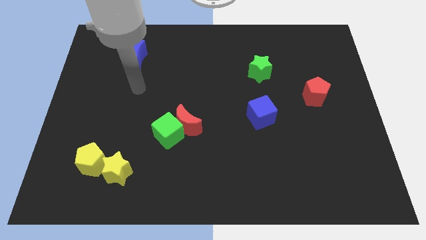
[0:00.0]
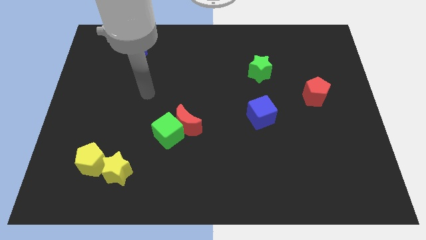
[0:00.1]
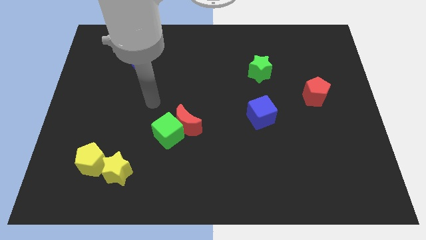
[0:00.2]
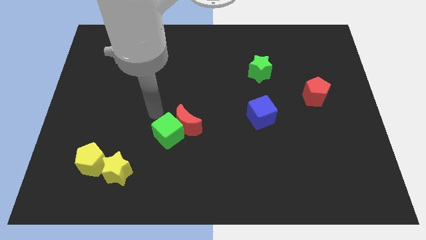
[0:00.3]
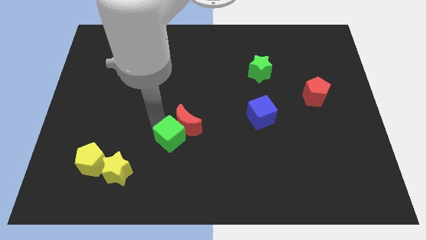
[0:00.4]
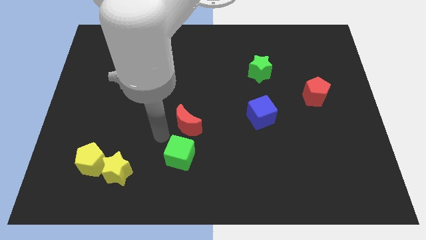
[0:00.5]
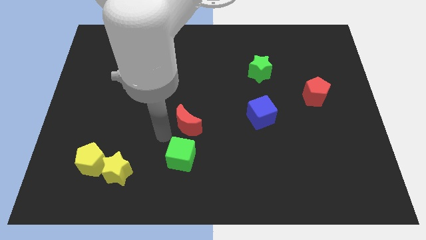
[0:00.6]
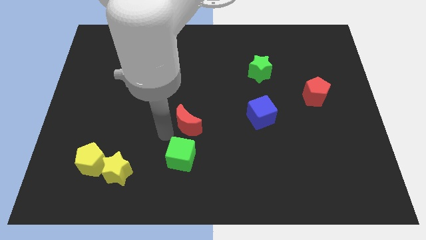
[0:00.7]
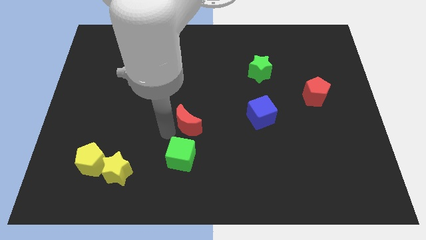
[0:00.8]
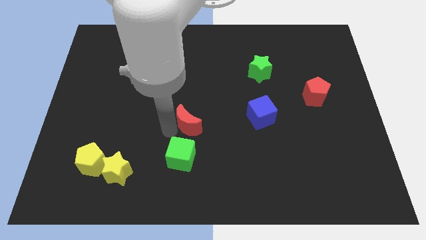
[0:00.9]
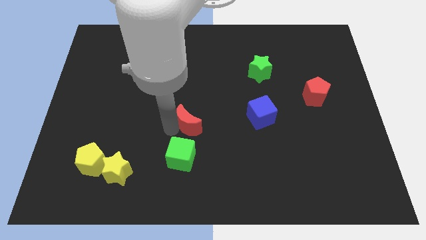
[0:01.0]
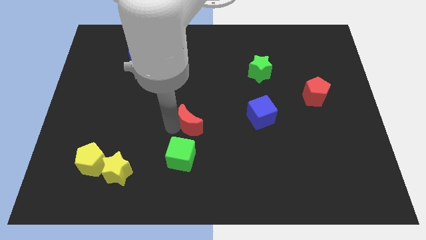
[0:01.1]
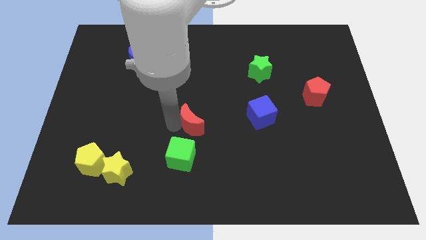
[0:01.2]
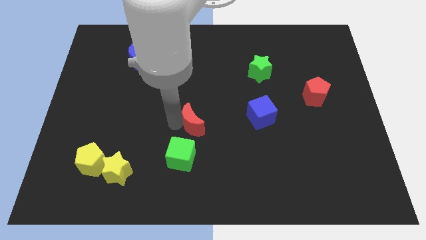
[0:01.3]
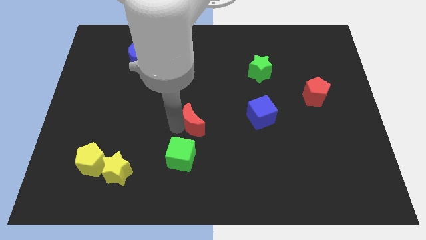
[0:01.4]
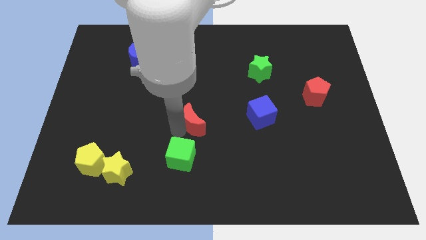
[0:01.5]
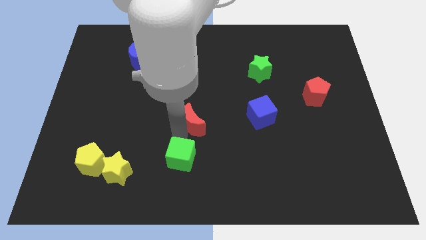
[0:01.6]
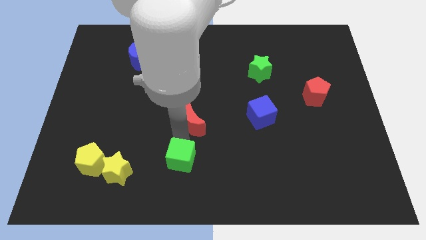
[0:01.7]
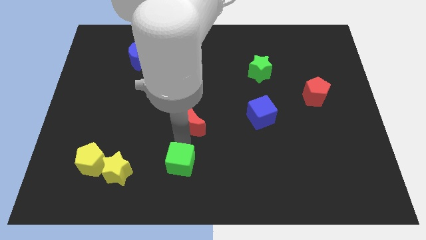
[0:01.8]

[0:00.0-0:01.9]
move the red moon away from the green cube

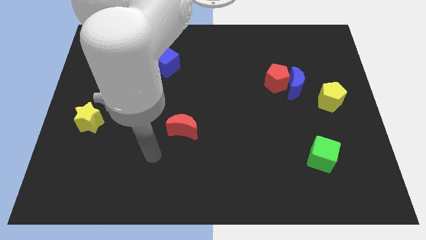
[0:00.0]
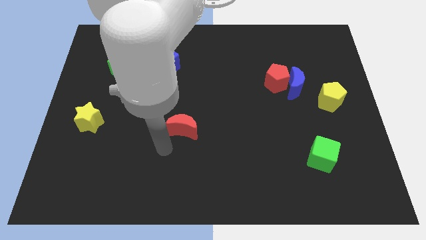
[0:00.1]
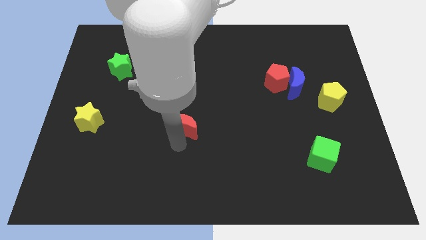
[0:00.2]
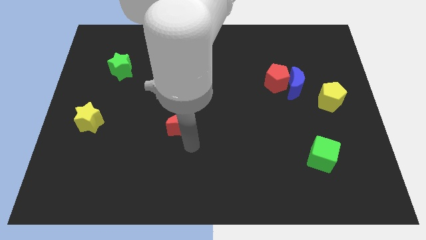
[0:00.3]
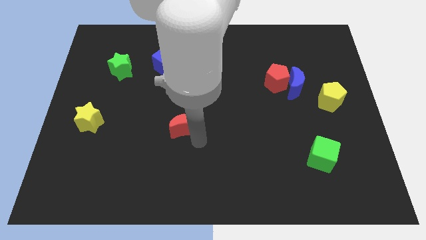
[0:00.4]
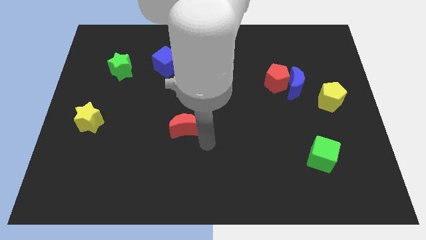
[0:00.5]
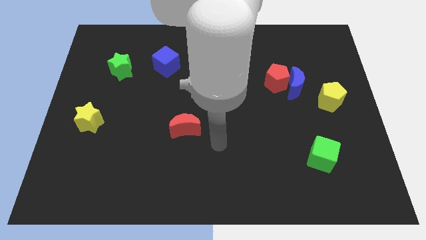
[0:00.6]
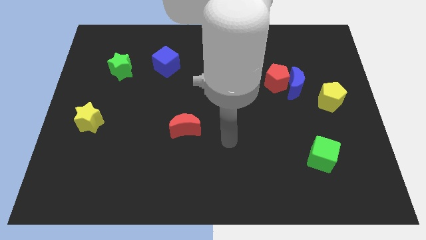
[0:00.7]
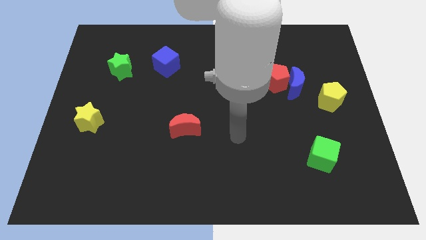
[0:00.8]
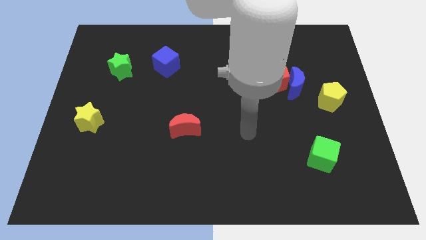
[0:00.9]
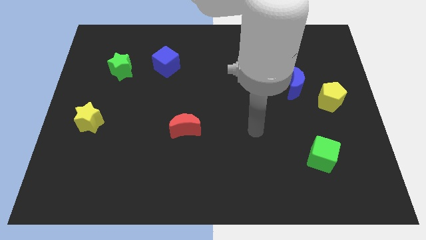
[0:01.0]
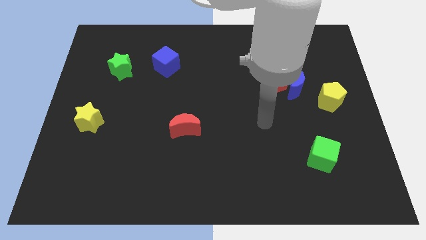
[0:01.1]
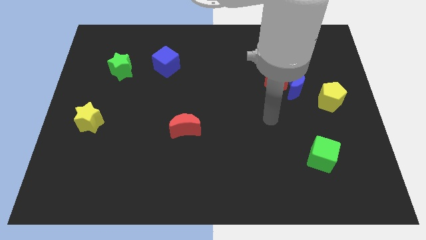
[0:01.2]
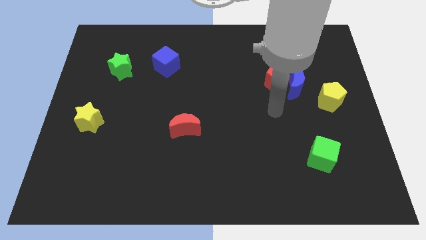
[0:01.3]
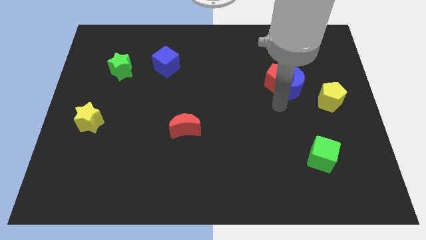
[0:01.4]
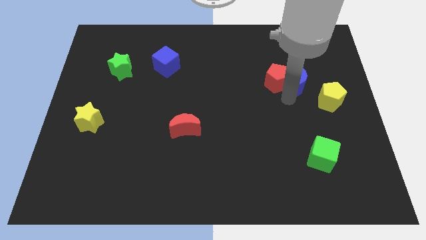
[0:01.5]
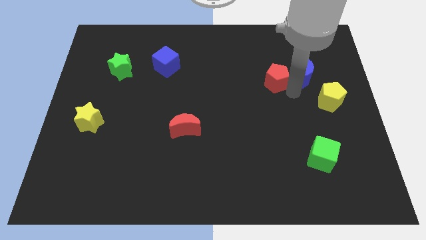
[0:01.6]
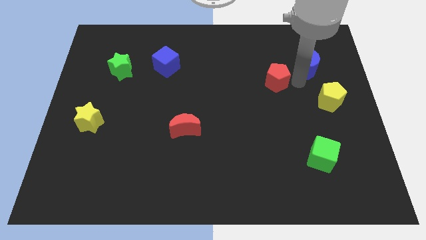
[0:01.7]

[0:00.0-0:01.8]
pull the red pentagon apart from the blue moon

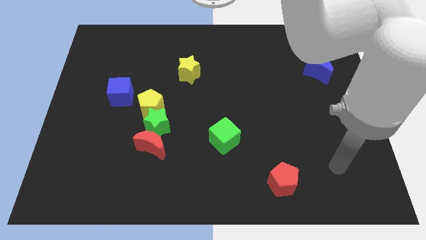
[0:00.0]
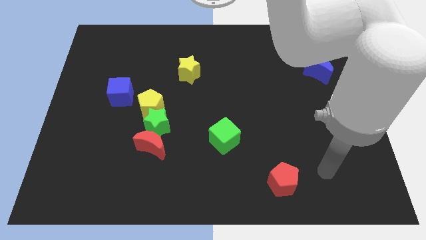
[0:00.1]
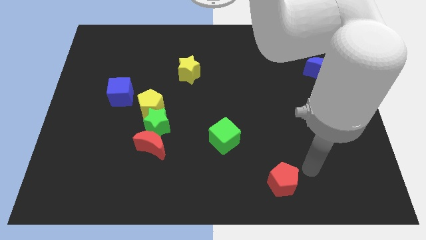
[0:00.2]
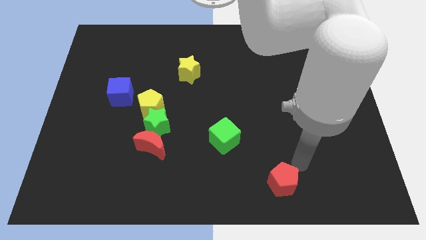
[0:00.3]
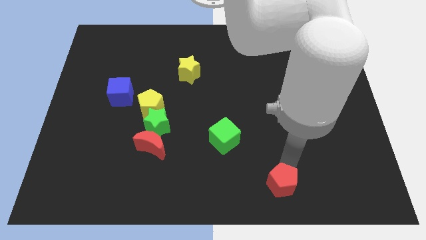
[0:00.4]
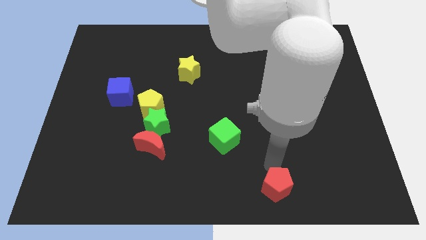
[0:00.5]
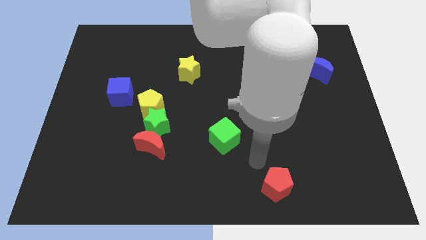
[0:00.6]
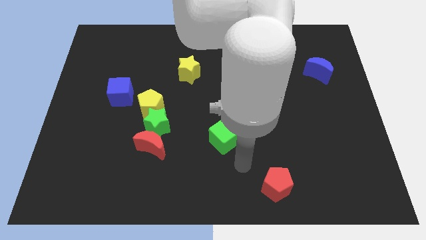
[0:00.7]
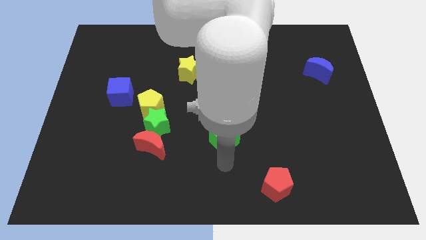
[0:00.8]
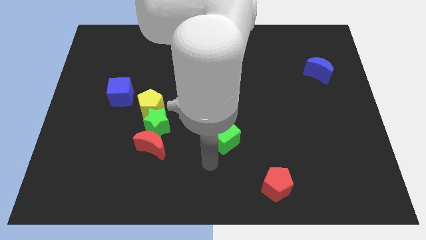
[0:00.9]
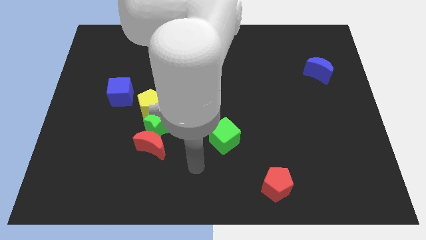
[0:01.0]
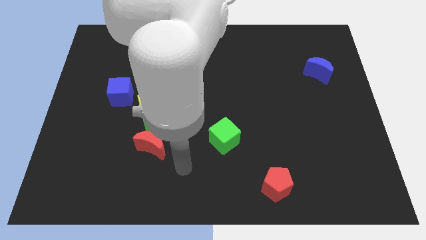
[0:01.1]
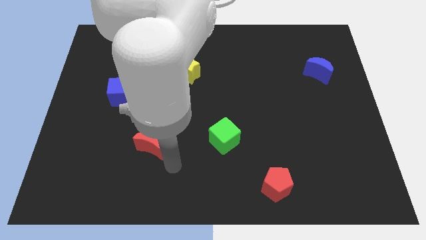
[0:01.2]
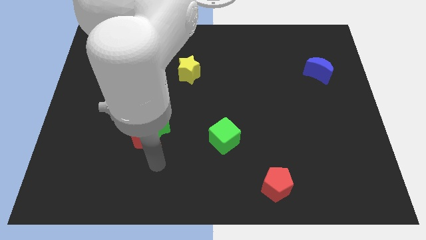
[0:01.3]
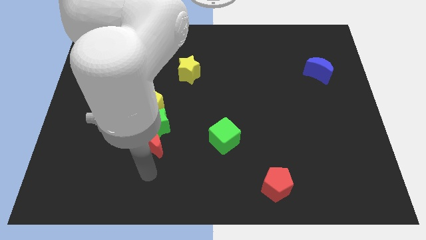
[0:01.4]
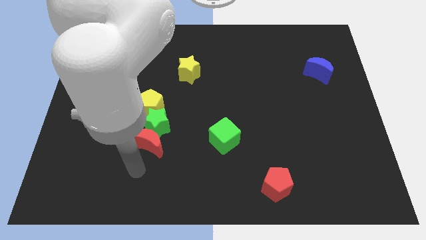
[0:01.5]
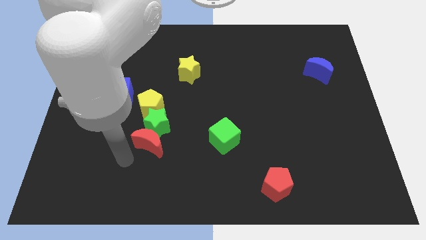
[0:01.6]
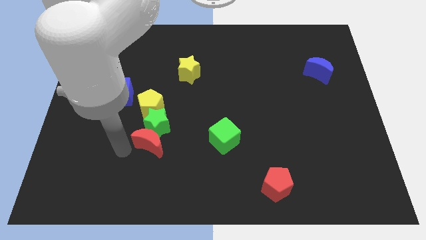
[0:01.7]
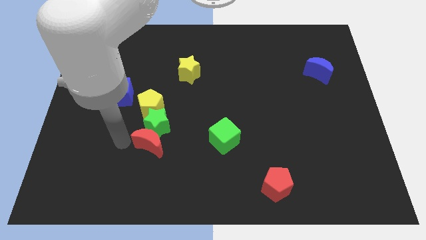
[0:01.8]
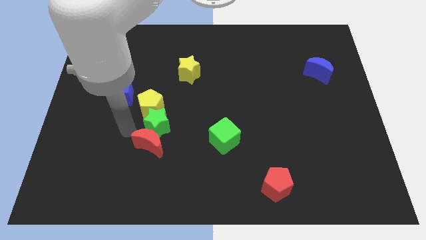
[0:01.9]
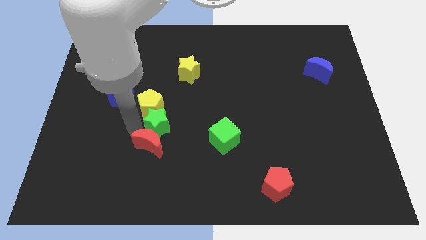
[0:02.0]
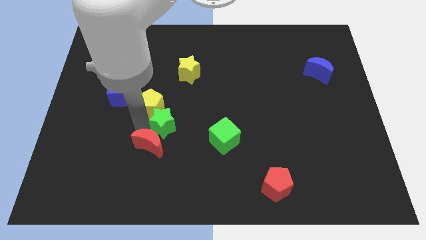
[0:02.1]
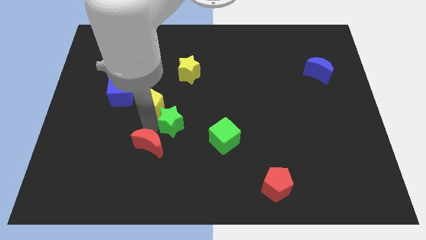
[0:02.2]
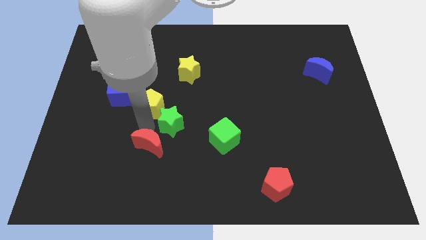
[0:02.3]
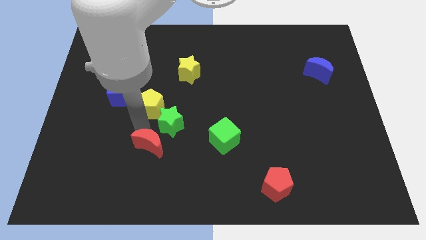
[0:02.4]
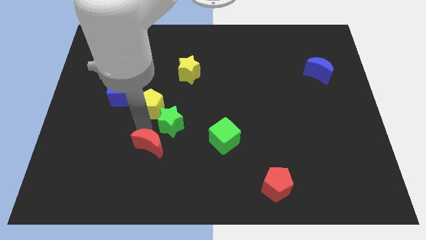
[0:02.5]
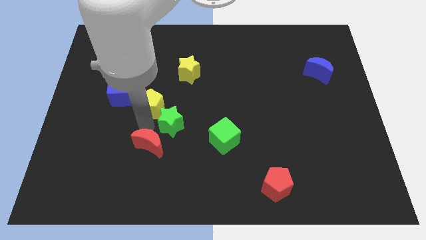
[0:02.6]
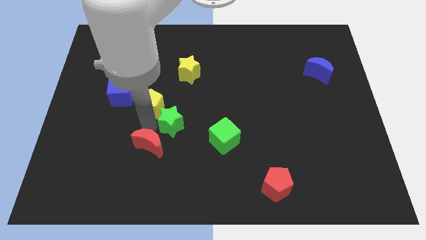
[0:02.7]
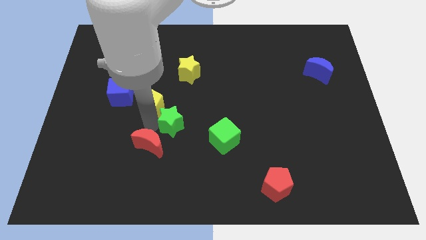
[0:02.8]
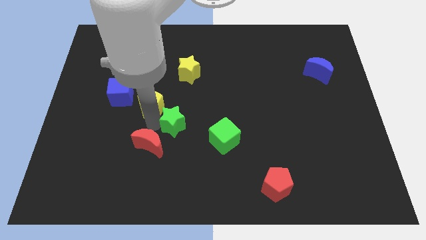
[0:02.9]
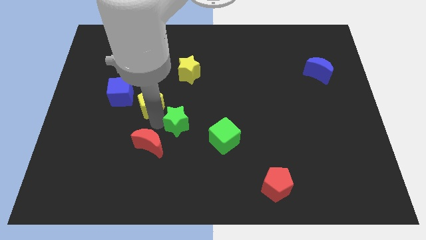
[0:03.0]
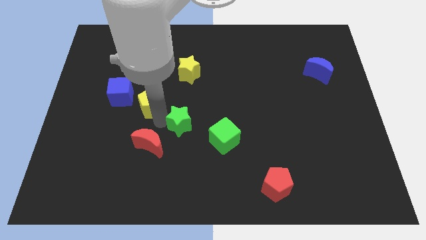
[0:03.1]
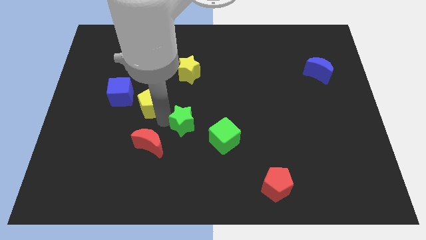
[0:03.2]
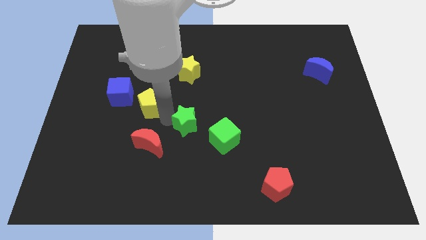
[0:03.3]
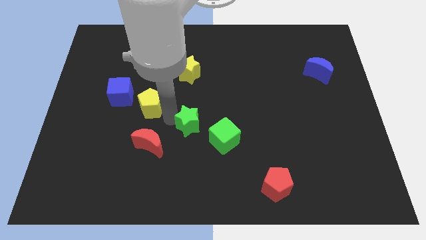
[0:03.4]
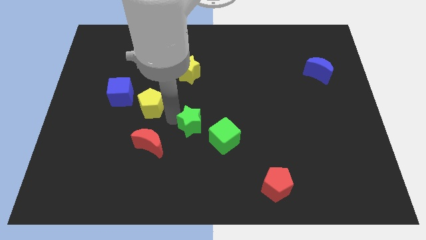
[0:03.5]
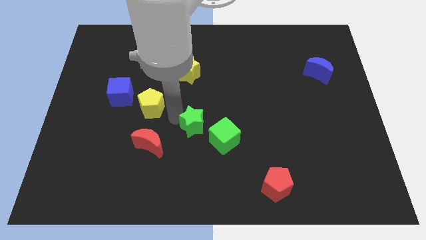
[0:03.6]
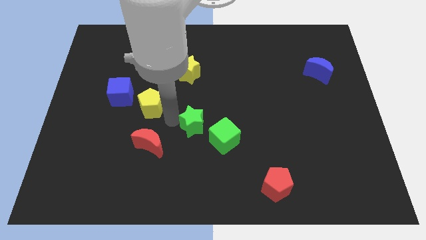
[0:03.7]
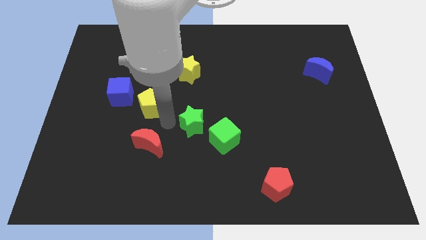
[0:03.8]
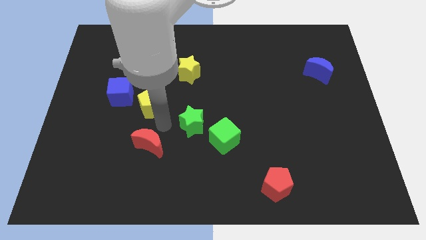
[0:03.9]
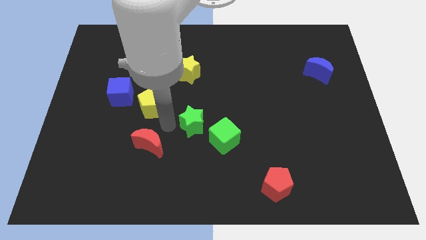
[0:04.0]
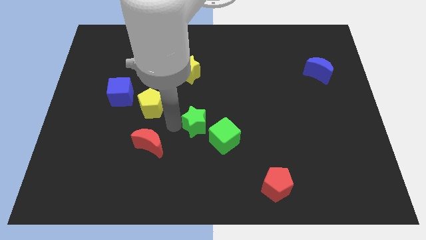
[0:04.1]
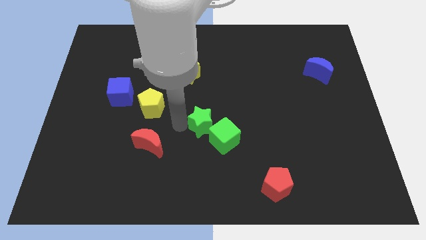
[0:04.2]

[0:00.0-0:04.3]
move the green star away from the yellow pentagon and red moon

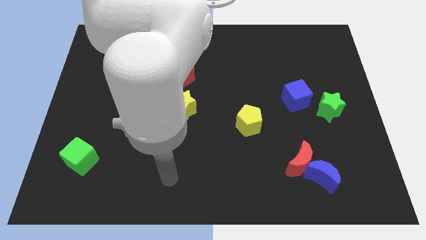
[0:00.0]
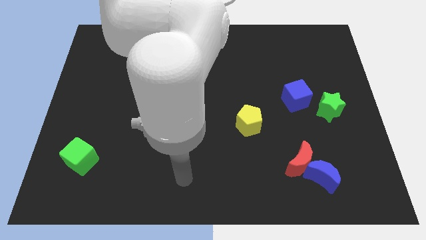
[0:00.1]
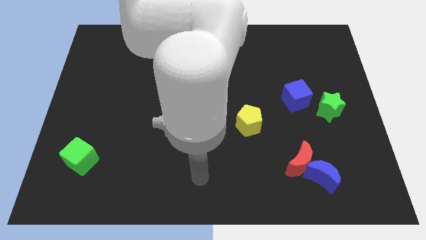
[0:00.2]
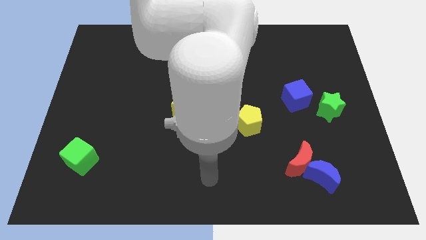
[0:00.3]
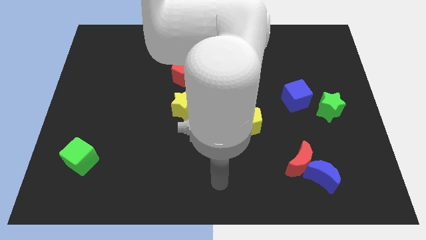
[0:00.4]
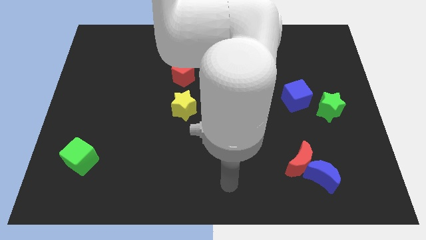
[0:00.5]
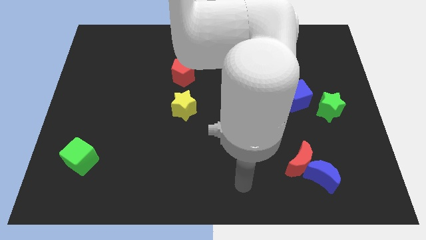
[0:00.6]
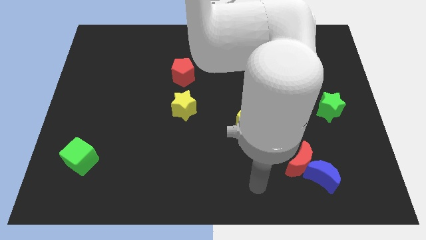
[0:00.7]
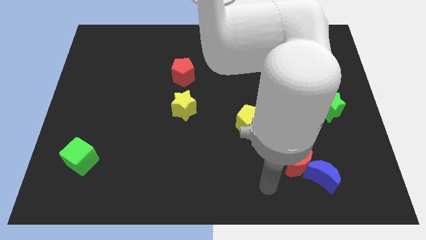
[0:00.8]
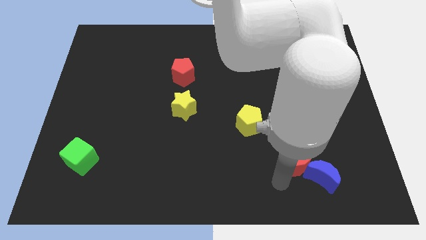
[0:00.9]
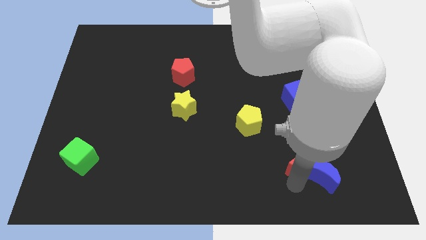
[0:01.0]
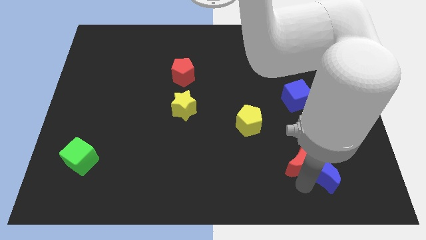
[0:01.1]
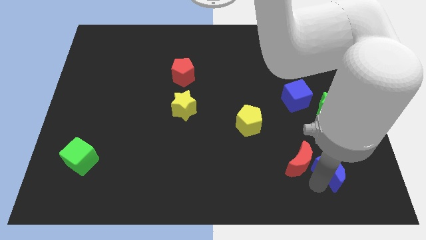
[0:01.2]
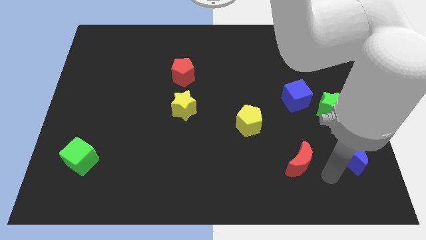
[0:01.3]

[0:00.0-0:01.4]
move the red moon away from the blue moon

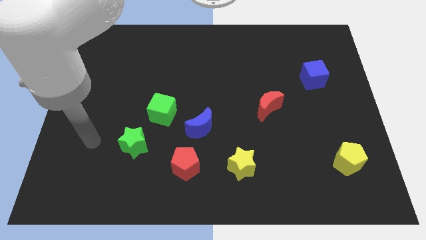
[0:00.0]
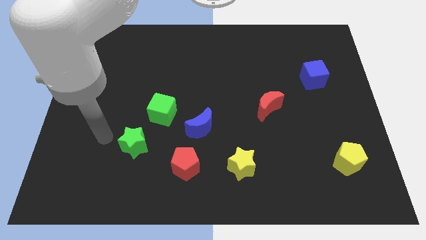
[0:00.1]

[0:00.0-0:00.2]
pull the green cube apart from the blue moon
